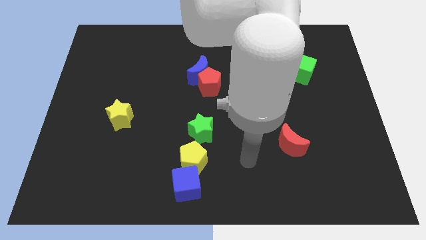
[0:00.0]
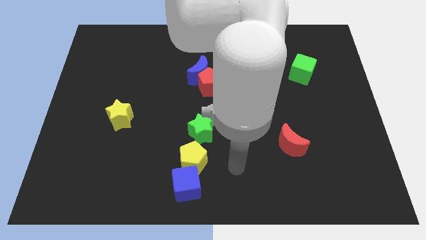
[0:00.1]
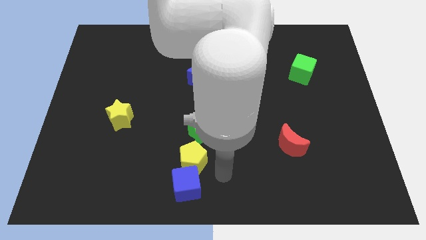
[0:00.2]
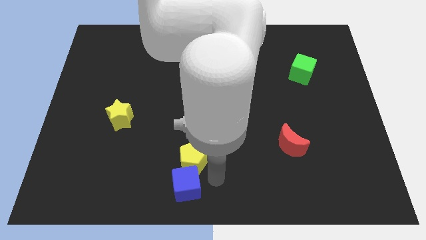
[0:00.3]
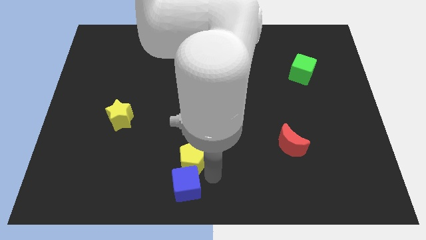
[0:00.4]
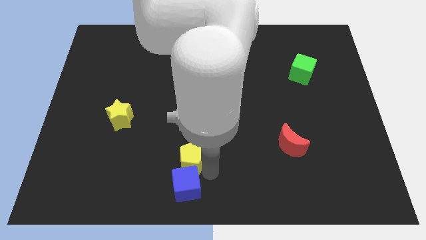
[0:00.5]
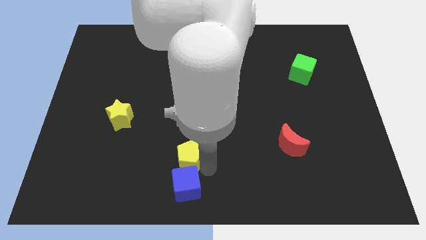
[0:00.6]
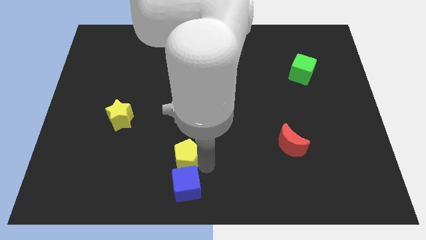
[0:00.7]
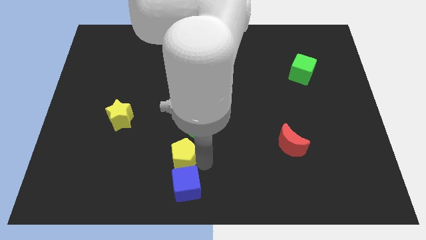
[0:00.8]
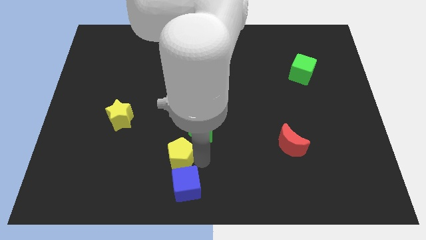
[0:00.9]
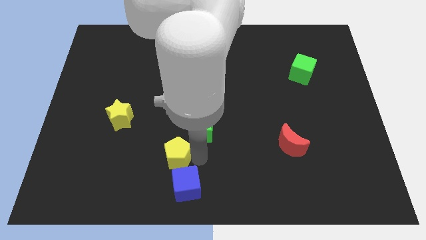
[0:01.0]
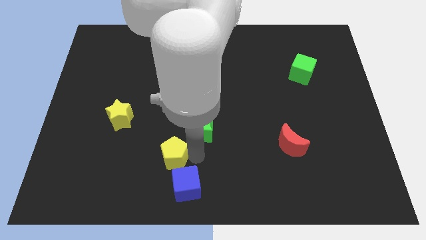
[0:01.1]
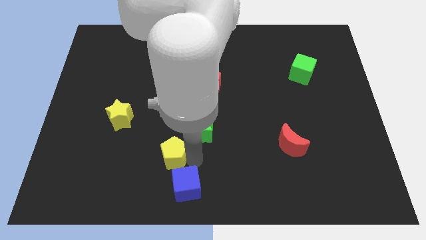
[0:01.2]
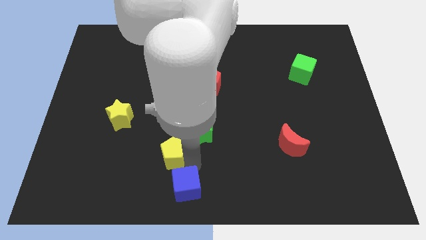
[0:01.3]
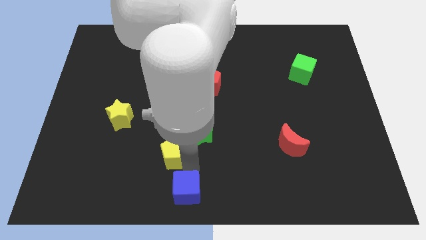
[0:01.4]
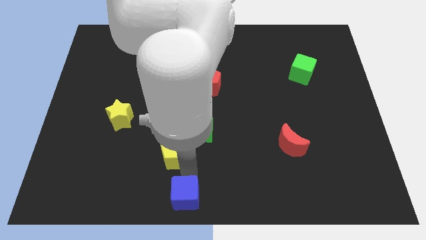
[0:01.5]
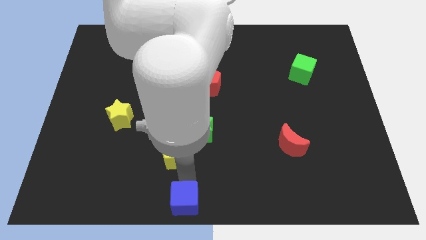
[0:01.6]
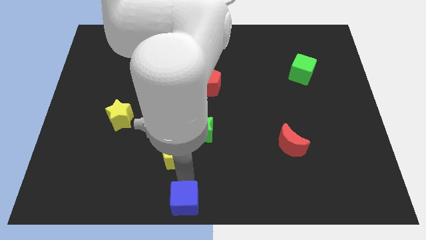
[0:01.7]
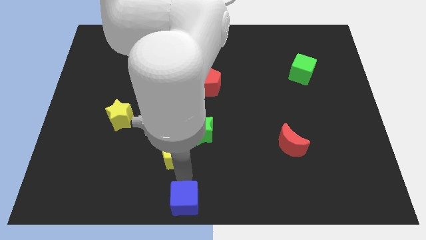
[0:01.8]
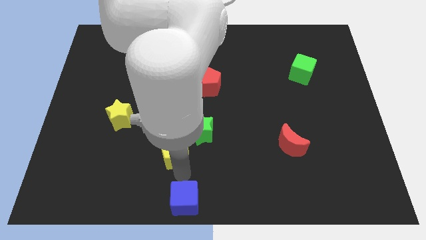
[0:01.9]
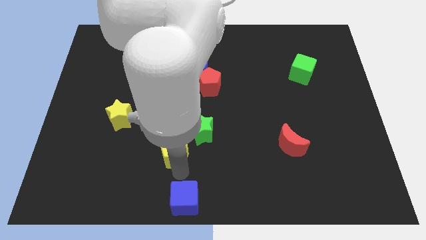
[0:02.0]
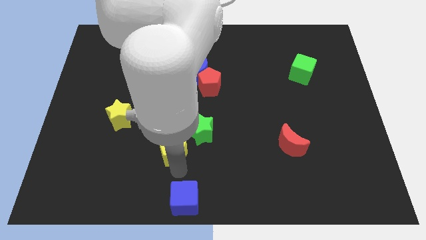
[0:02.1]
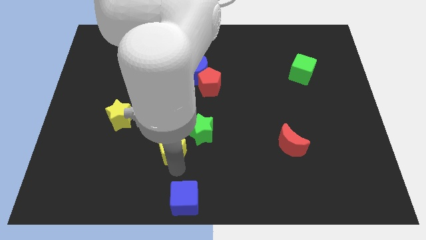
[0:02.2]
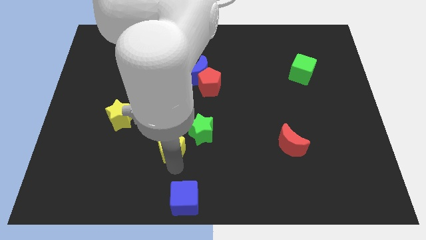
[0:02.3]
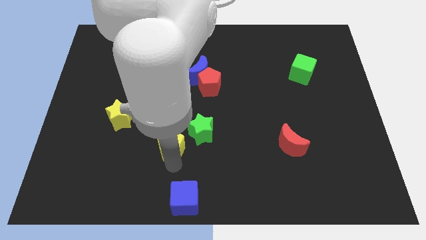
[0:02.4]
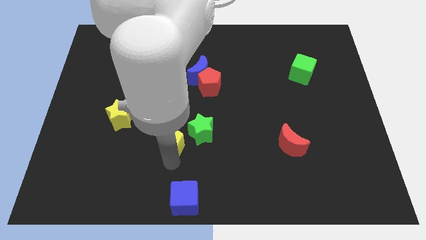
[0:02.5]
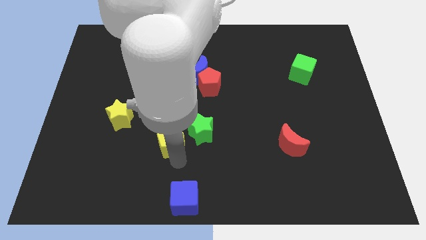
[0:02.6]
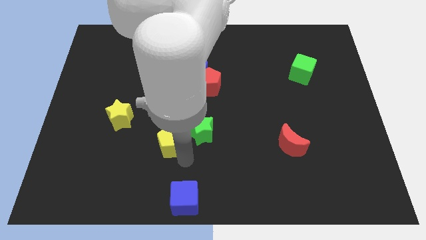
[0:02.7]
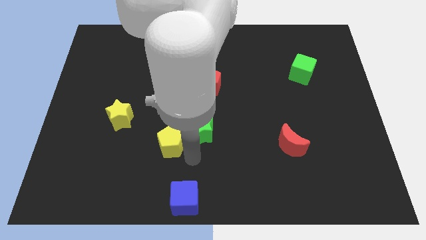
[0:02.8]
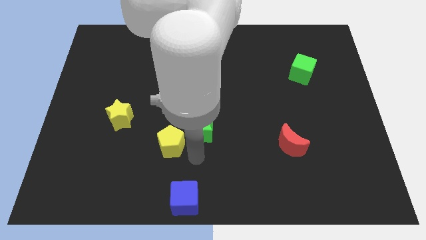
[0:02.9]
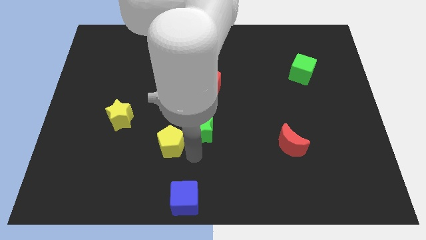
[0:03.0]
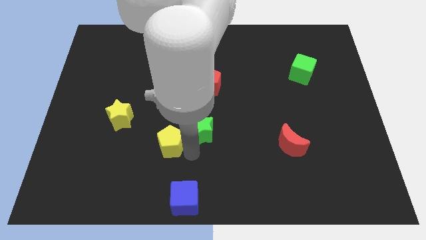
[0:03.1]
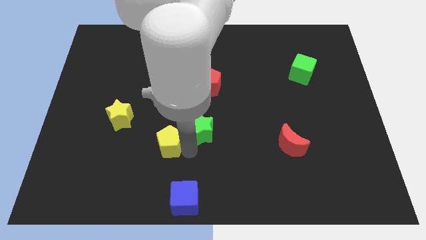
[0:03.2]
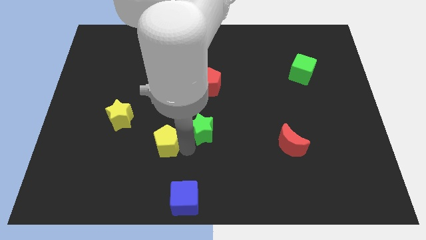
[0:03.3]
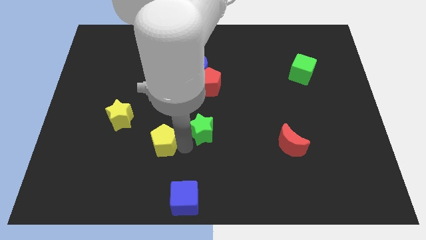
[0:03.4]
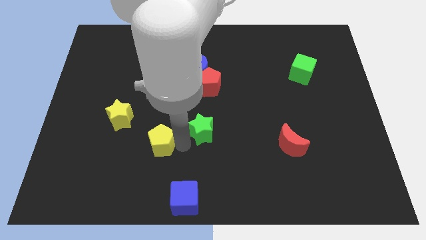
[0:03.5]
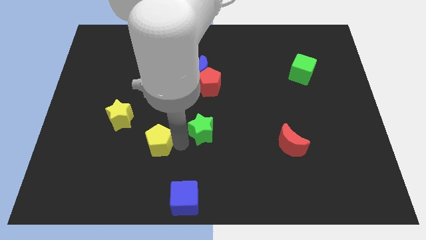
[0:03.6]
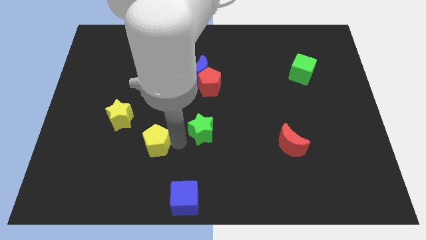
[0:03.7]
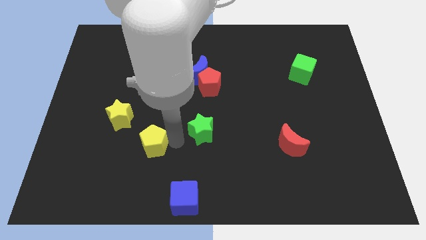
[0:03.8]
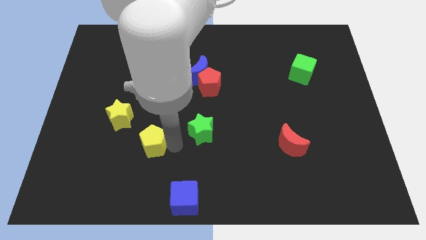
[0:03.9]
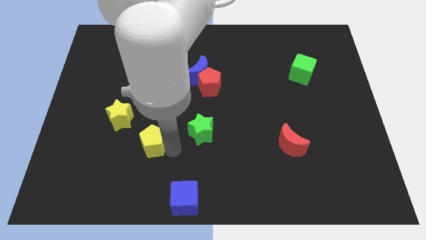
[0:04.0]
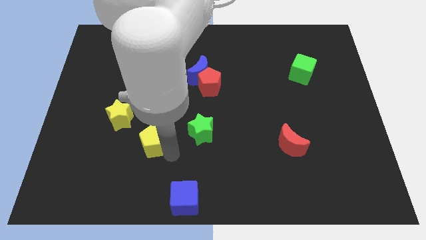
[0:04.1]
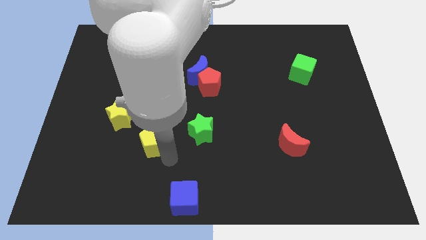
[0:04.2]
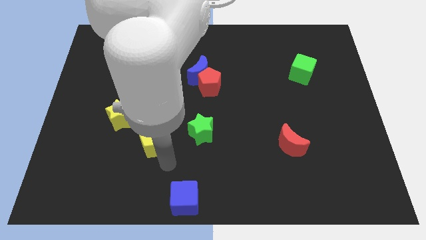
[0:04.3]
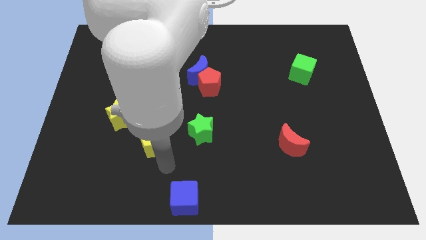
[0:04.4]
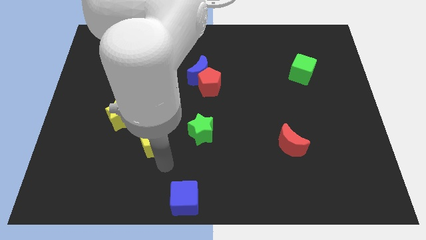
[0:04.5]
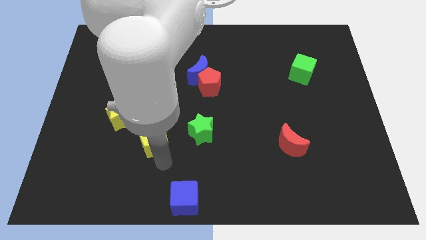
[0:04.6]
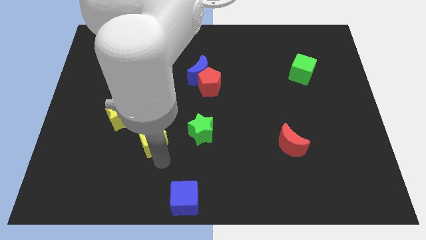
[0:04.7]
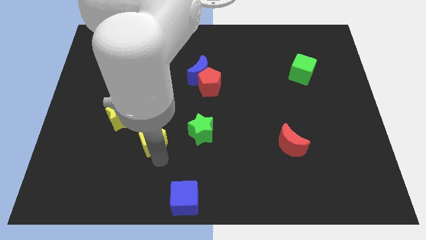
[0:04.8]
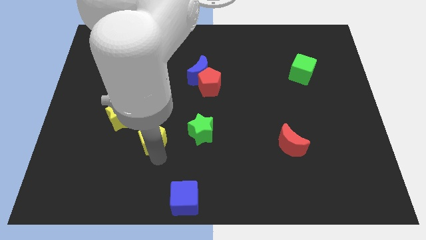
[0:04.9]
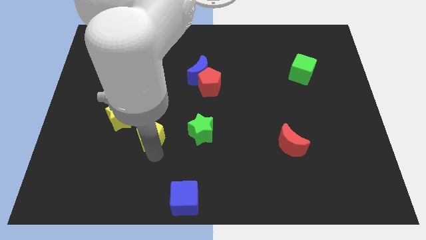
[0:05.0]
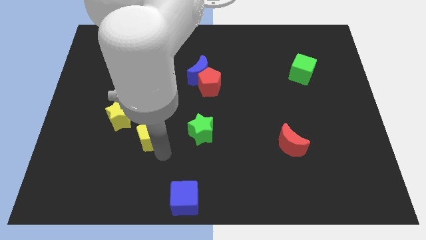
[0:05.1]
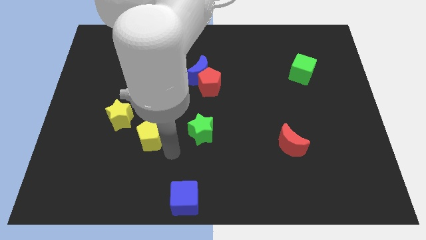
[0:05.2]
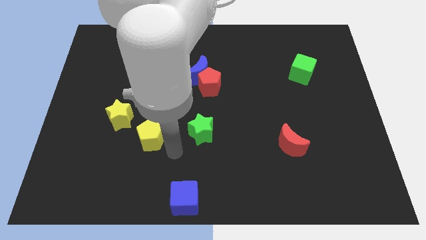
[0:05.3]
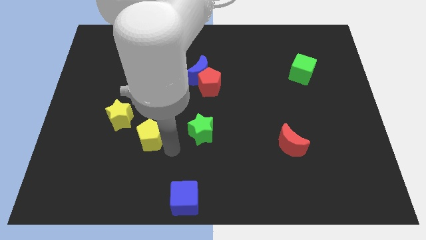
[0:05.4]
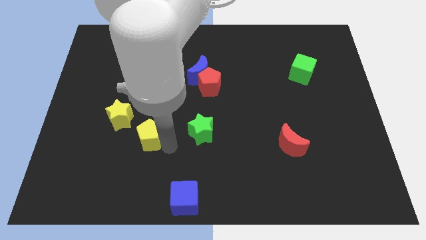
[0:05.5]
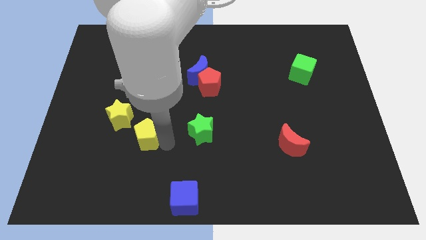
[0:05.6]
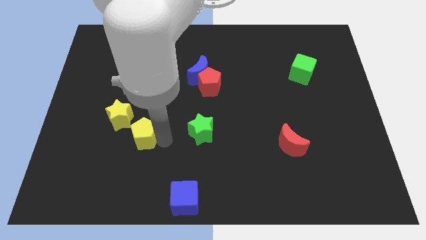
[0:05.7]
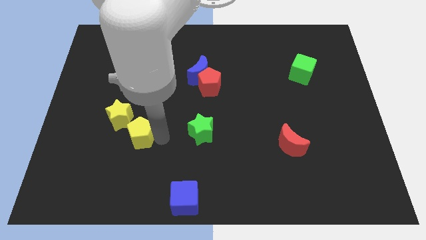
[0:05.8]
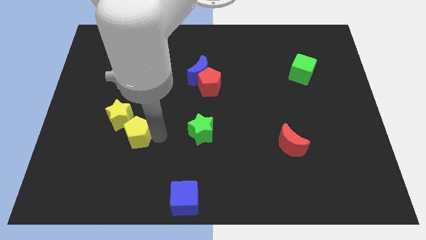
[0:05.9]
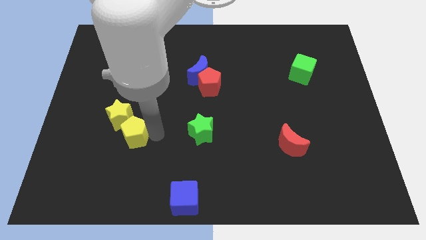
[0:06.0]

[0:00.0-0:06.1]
slide the yellow pentagon towards the yellow star

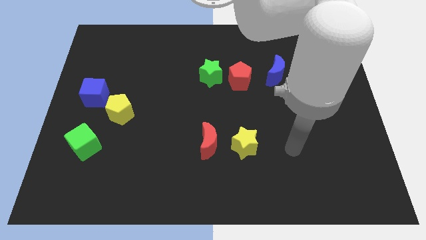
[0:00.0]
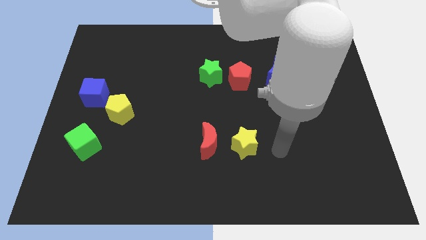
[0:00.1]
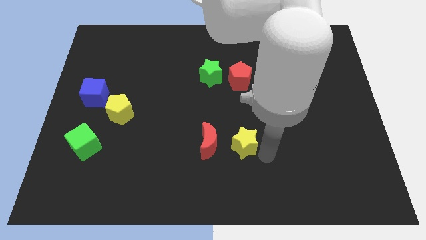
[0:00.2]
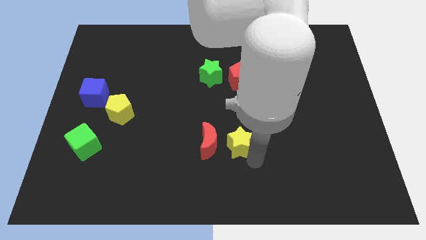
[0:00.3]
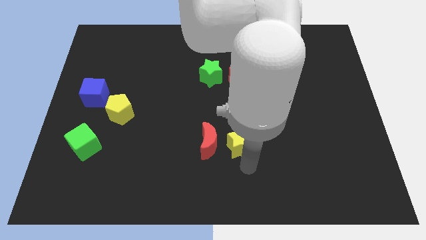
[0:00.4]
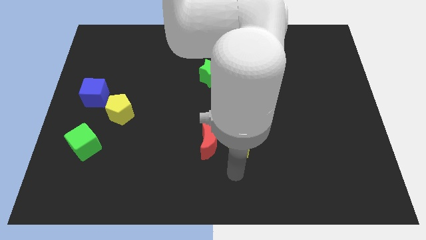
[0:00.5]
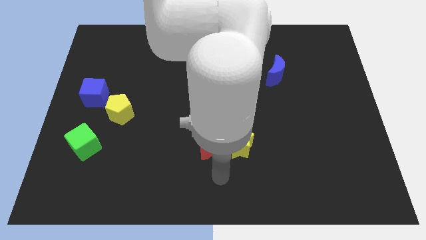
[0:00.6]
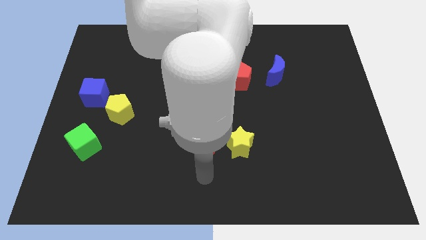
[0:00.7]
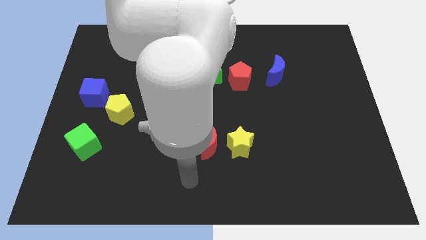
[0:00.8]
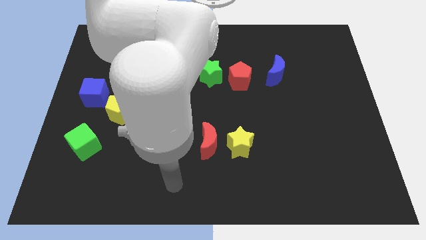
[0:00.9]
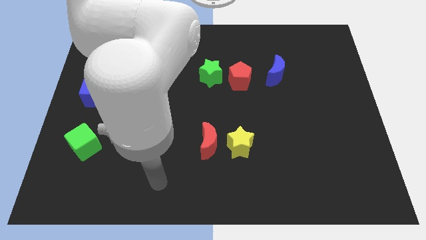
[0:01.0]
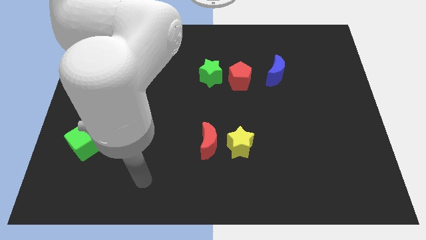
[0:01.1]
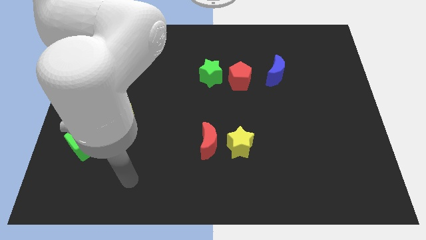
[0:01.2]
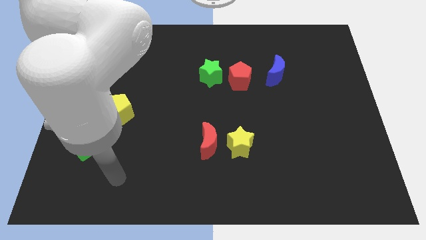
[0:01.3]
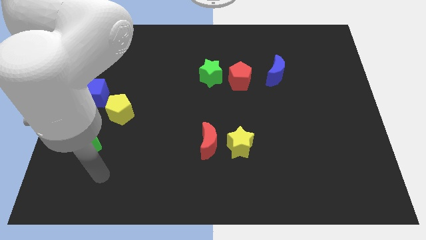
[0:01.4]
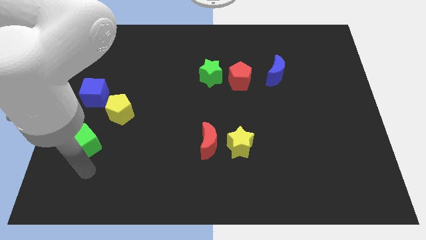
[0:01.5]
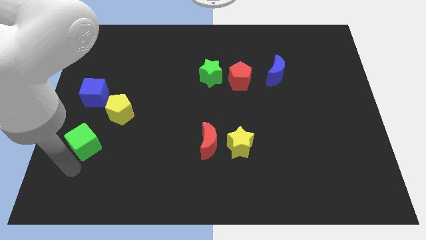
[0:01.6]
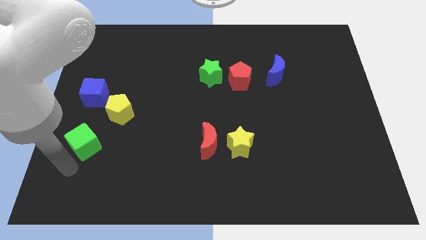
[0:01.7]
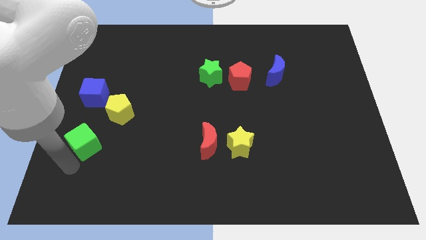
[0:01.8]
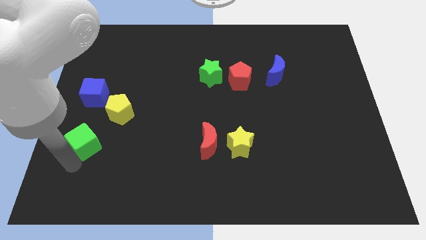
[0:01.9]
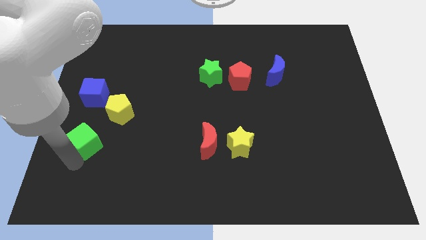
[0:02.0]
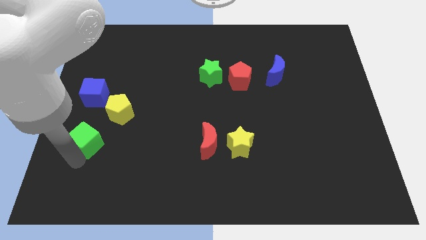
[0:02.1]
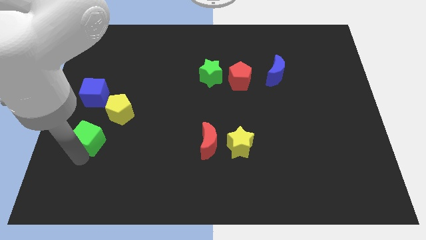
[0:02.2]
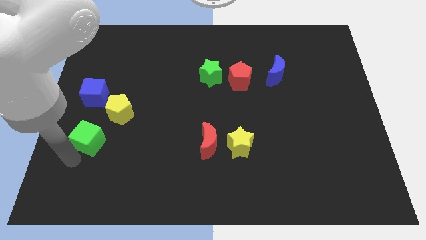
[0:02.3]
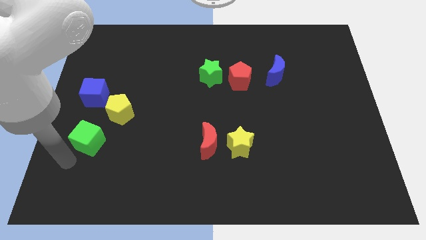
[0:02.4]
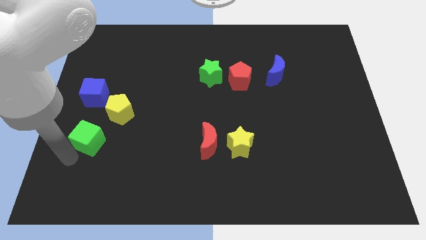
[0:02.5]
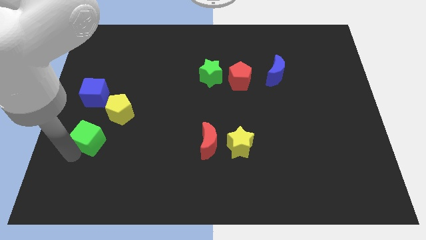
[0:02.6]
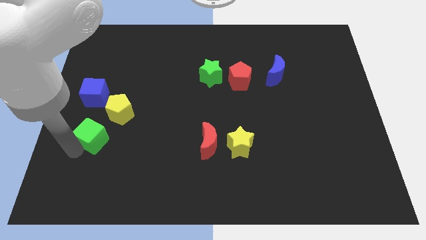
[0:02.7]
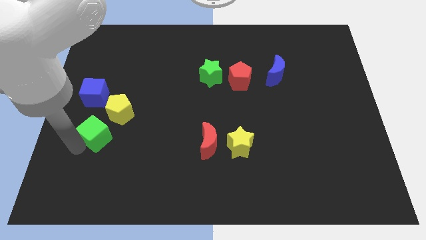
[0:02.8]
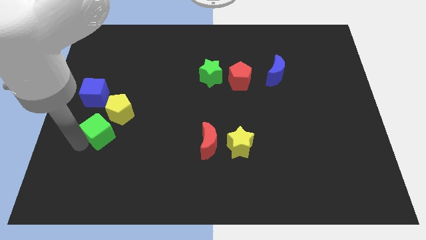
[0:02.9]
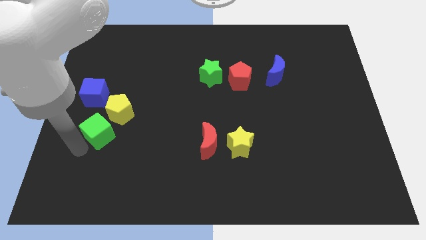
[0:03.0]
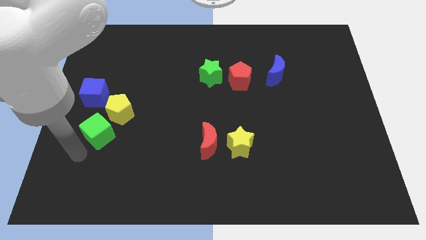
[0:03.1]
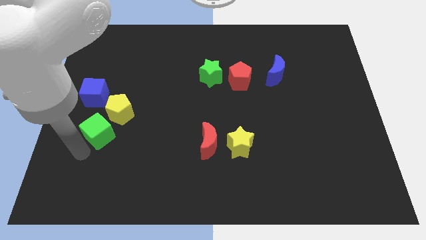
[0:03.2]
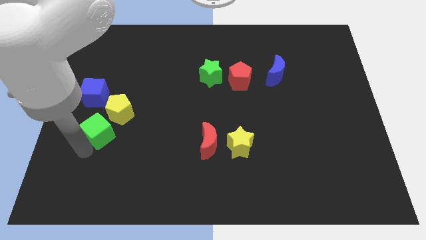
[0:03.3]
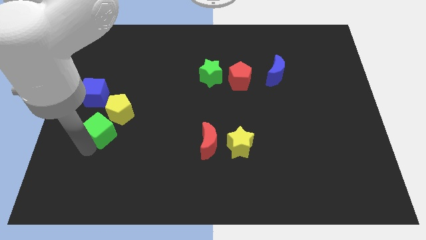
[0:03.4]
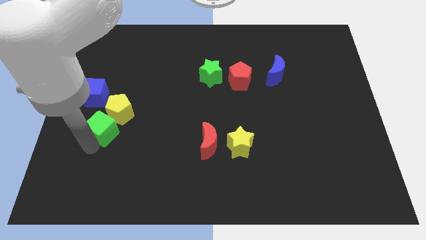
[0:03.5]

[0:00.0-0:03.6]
slide the green cube close to the yellow pentagon
